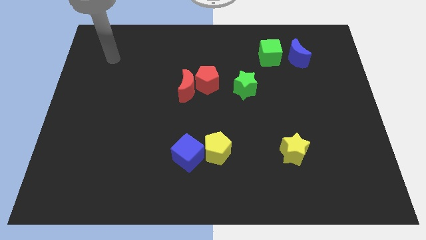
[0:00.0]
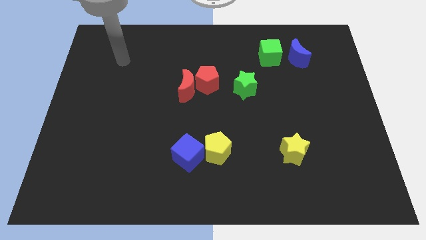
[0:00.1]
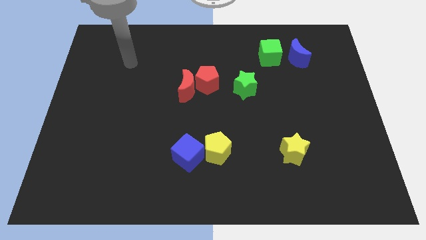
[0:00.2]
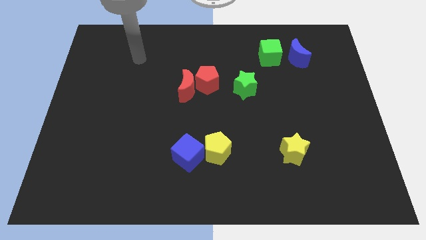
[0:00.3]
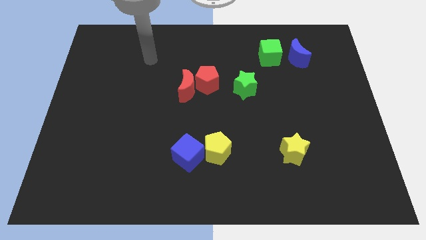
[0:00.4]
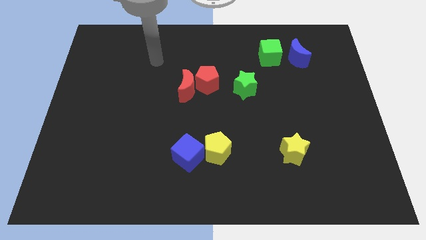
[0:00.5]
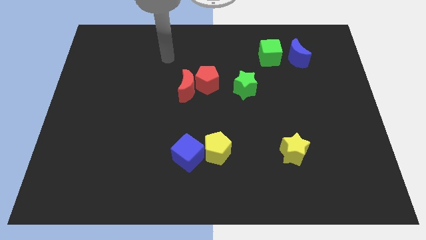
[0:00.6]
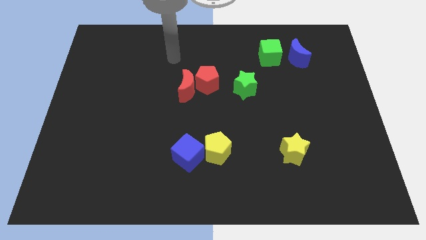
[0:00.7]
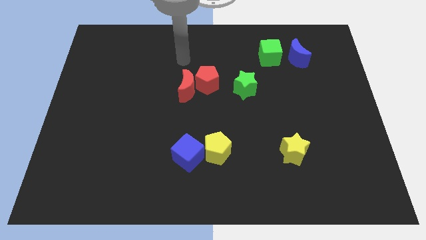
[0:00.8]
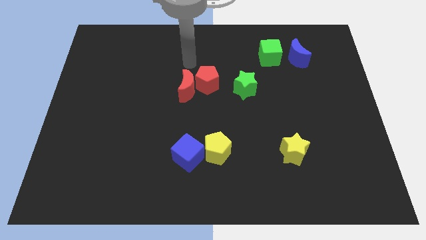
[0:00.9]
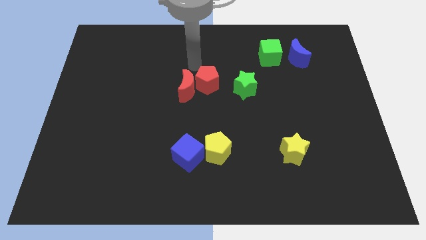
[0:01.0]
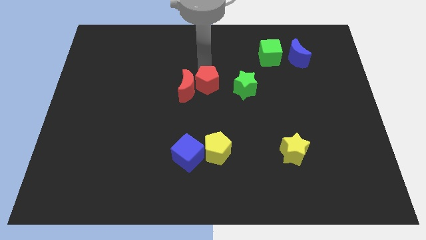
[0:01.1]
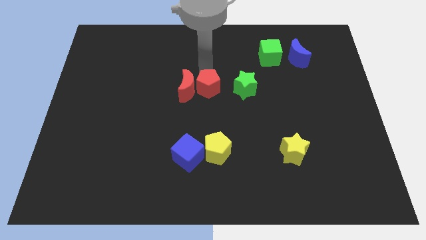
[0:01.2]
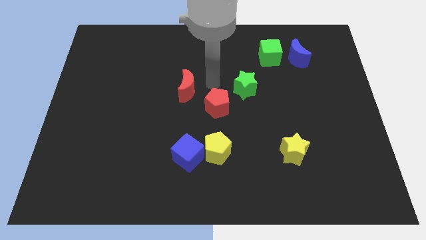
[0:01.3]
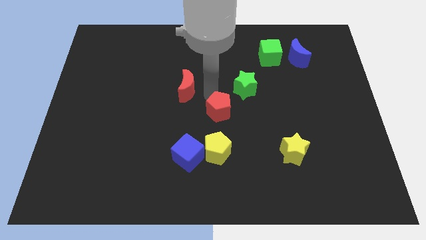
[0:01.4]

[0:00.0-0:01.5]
separate the red moon from the red pentagon

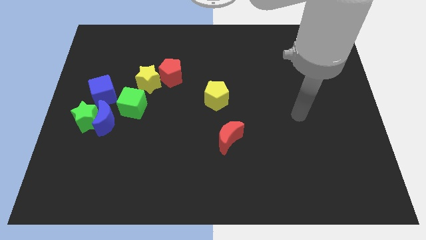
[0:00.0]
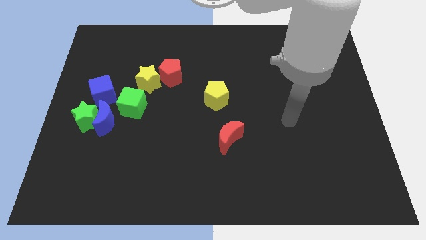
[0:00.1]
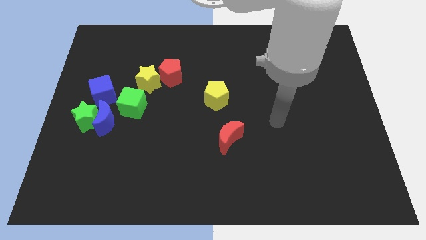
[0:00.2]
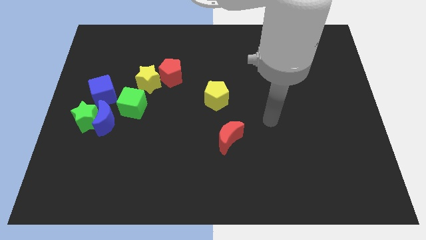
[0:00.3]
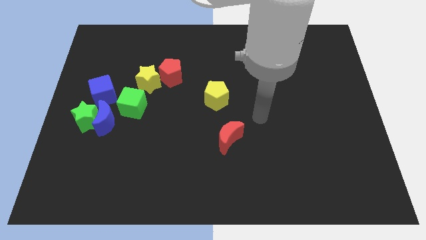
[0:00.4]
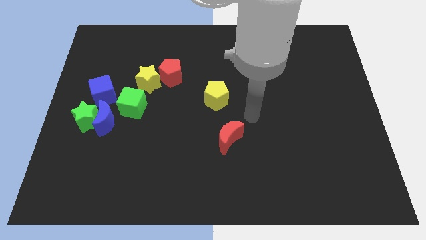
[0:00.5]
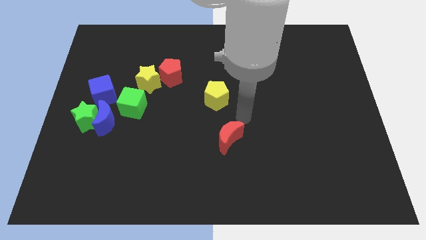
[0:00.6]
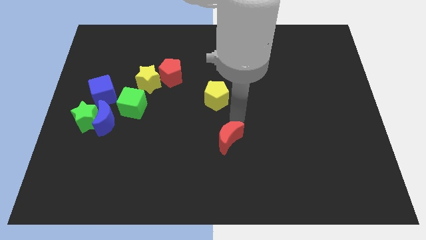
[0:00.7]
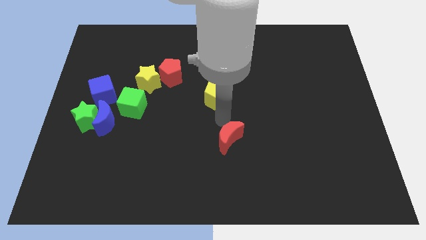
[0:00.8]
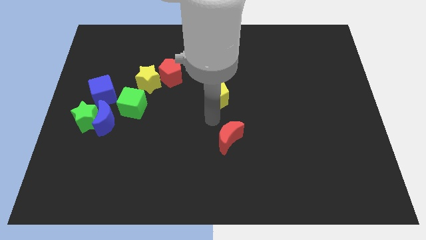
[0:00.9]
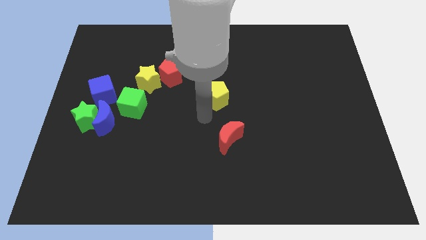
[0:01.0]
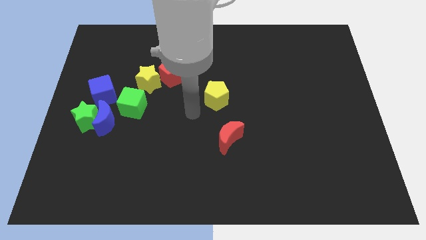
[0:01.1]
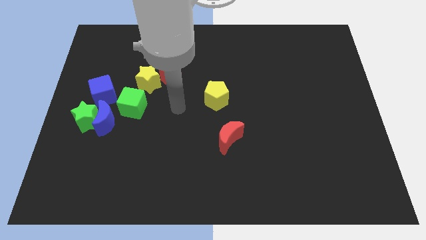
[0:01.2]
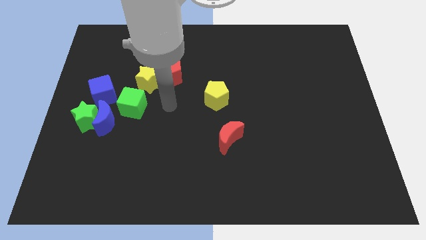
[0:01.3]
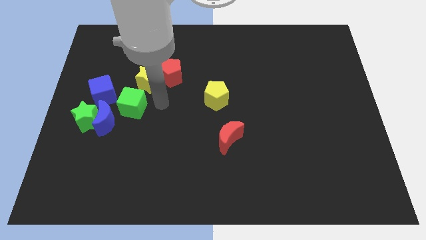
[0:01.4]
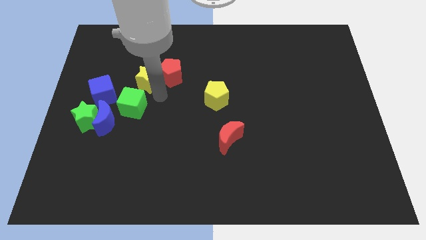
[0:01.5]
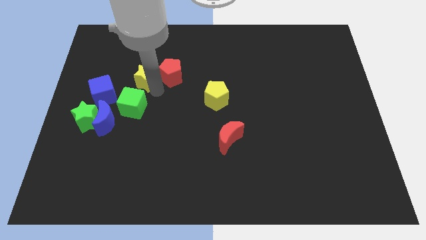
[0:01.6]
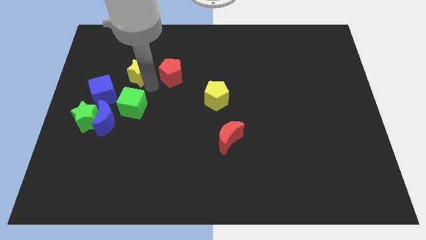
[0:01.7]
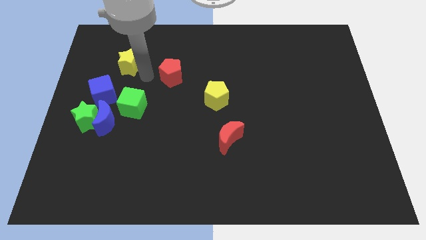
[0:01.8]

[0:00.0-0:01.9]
separate the red pentagon from the yellow star

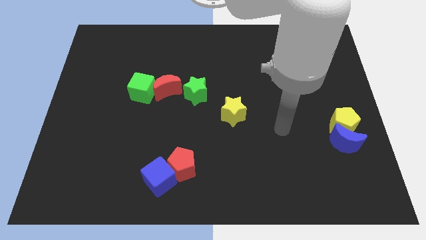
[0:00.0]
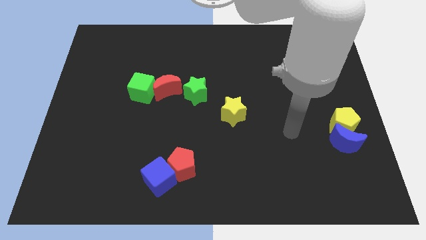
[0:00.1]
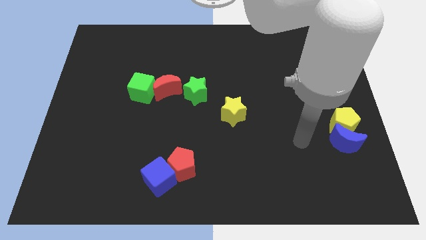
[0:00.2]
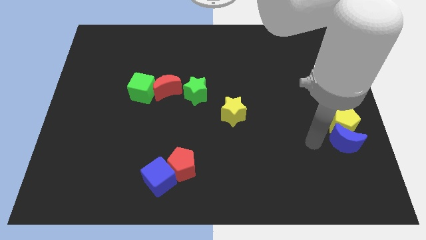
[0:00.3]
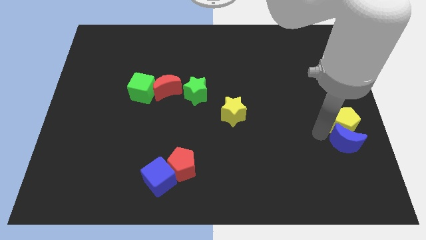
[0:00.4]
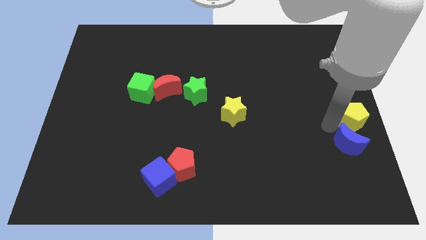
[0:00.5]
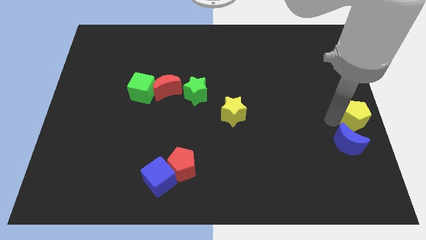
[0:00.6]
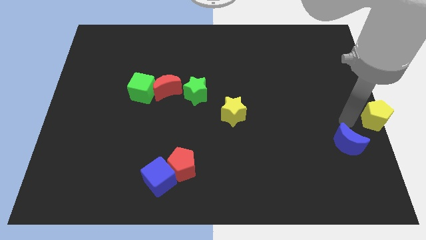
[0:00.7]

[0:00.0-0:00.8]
separate the blue moon from the yellow pentagon

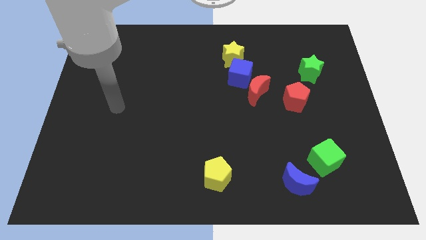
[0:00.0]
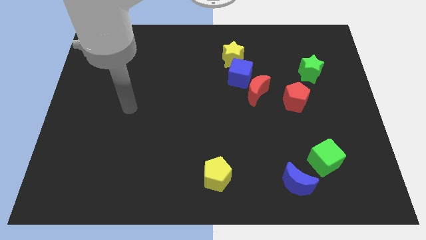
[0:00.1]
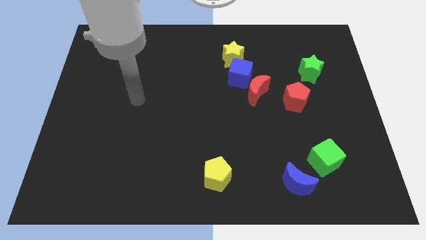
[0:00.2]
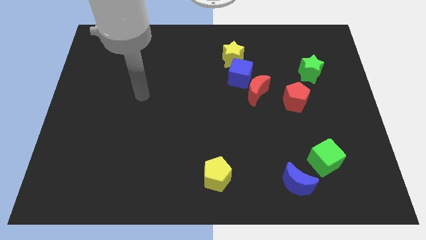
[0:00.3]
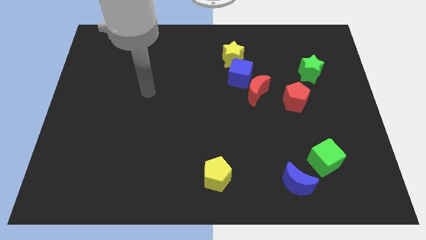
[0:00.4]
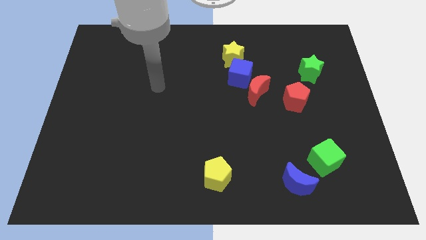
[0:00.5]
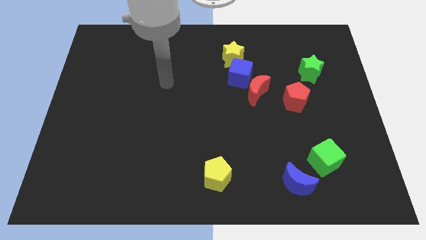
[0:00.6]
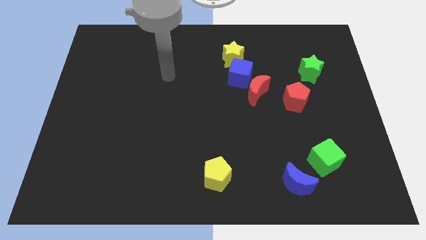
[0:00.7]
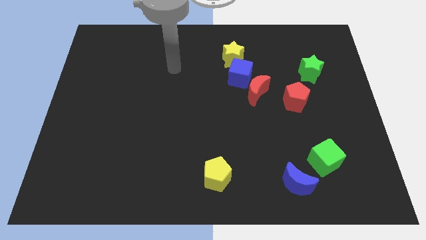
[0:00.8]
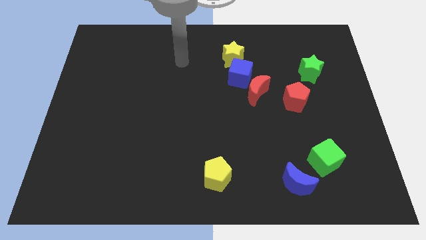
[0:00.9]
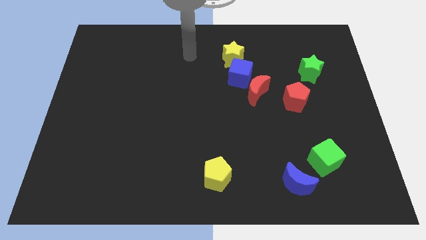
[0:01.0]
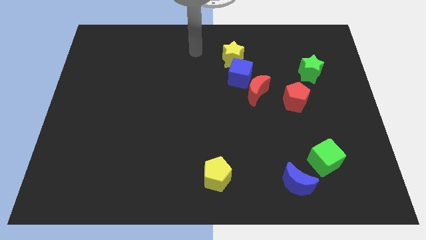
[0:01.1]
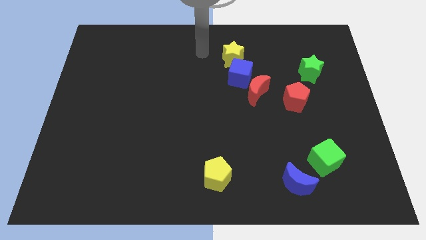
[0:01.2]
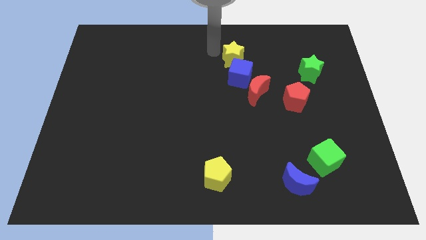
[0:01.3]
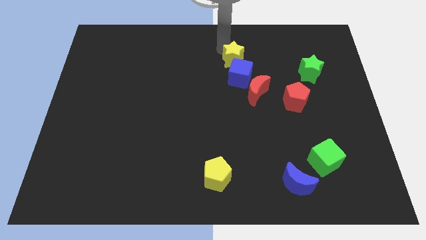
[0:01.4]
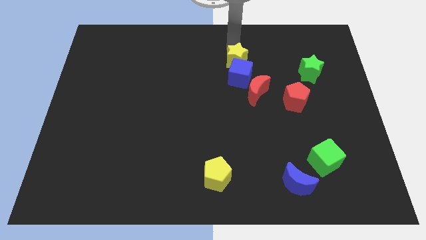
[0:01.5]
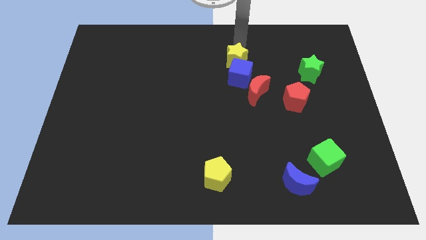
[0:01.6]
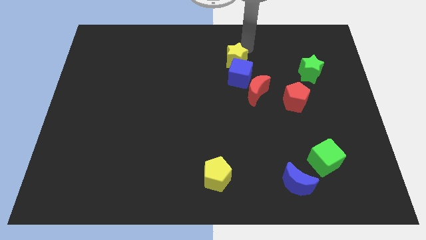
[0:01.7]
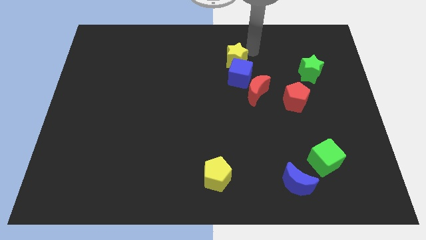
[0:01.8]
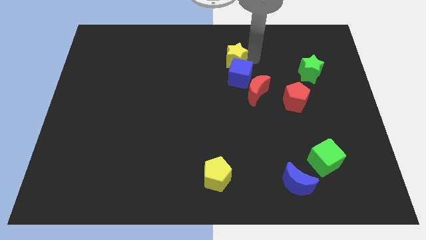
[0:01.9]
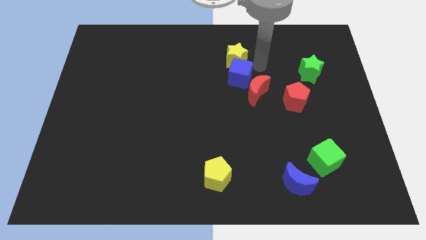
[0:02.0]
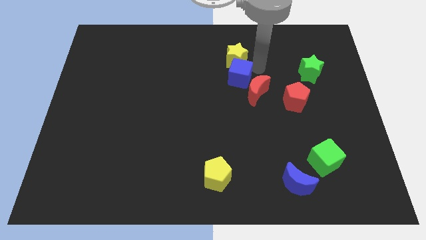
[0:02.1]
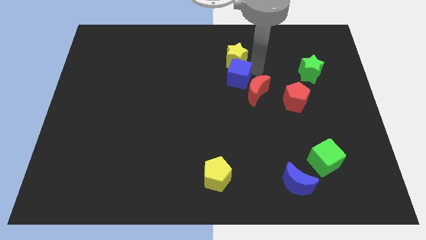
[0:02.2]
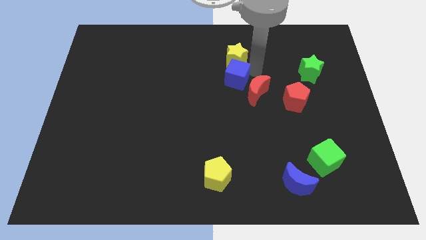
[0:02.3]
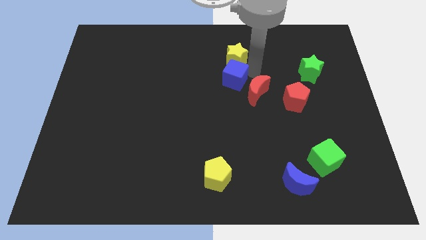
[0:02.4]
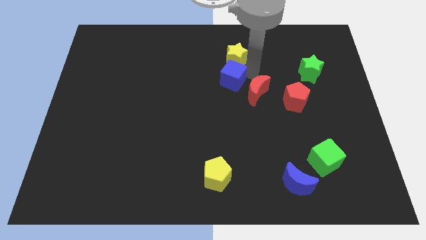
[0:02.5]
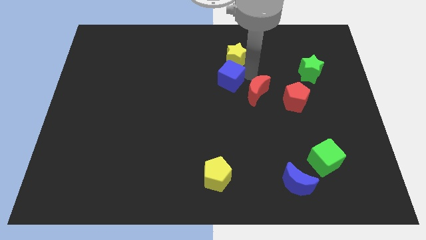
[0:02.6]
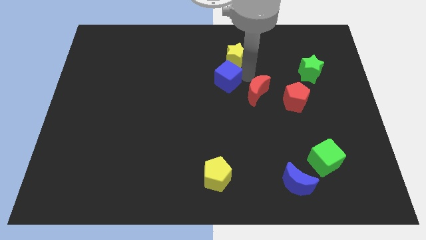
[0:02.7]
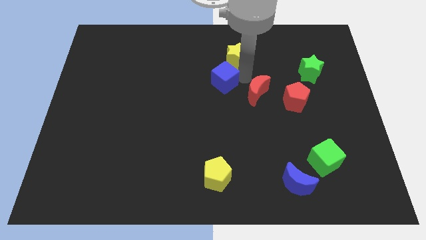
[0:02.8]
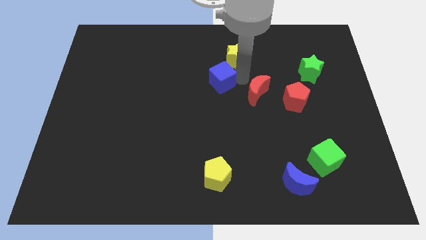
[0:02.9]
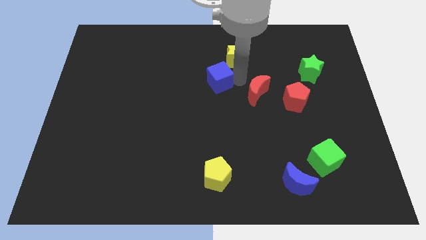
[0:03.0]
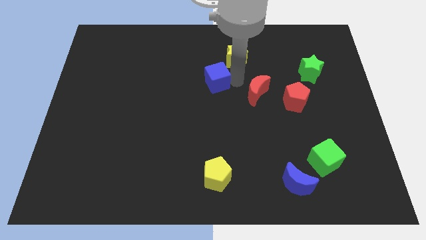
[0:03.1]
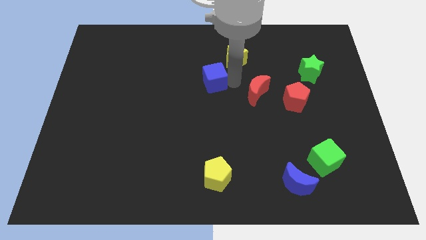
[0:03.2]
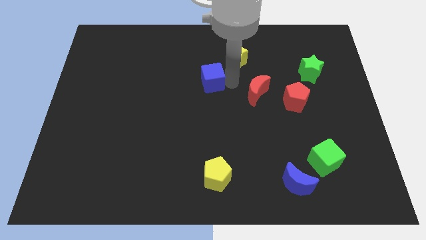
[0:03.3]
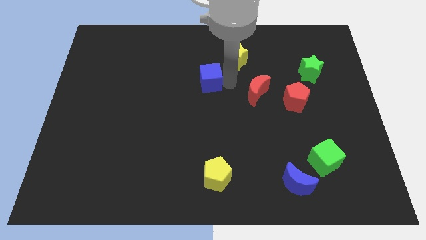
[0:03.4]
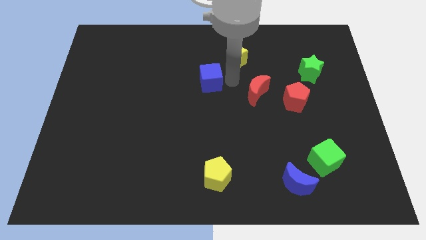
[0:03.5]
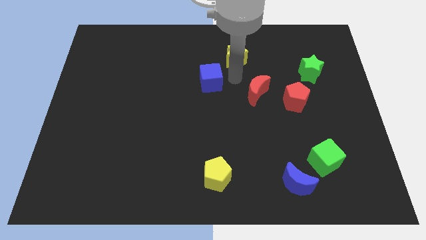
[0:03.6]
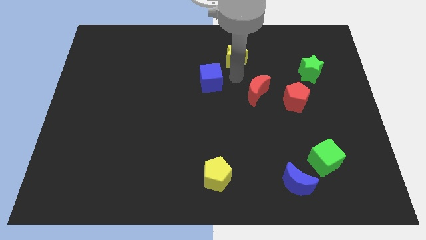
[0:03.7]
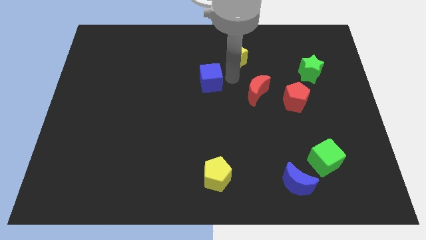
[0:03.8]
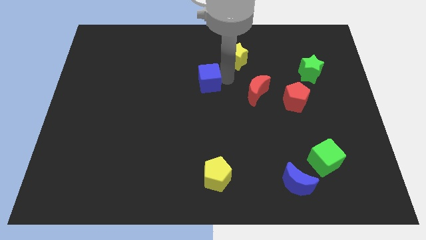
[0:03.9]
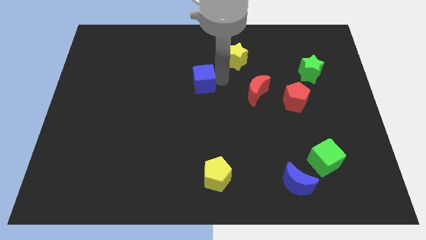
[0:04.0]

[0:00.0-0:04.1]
separate the blue cube from the red moon and yellow star

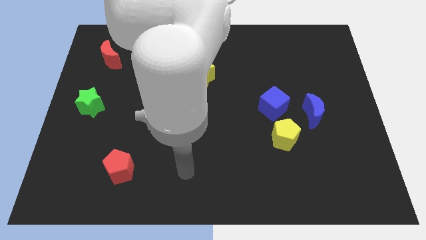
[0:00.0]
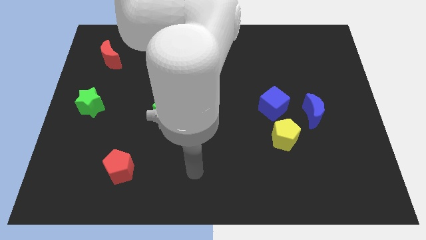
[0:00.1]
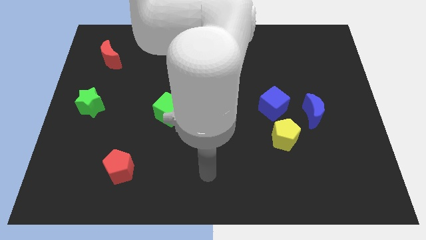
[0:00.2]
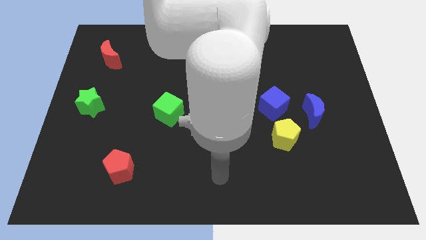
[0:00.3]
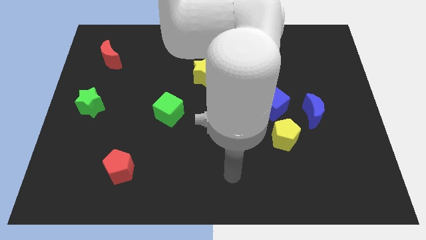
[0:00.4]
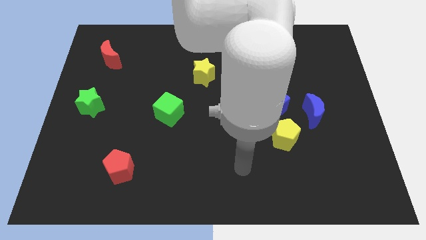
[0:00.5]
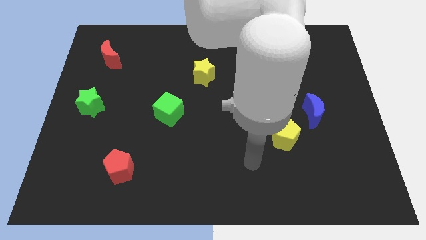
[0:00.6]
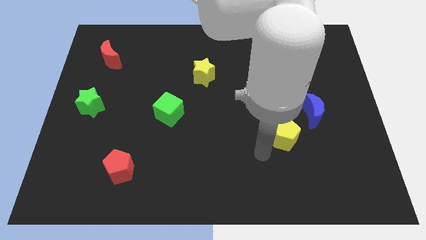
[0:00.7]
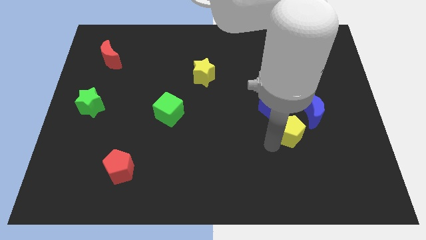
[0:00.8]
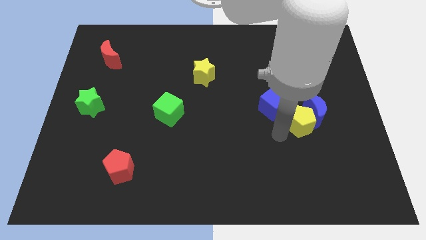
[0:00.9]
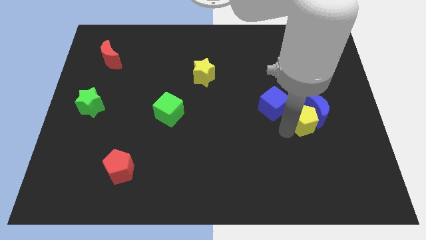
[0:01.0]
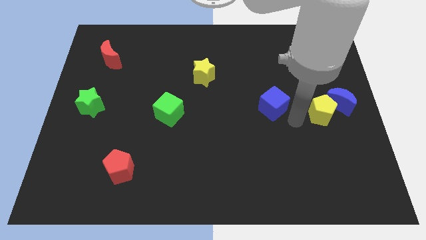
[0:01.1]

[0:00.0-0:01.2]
separate the blue cube from the yellow pentagon and blue moon
